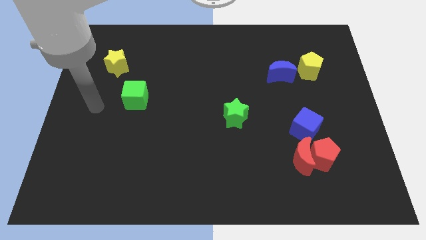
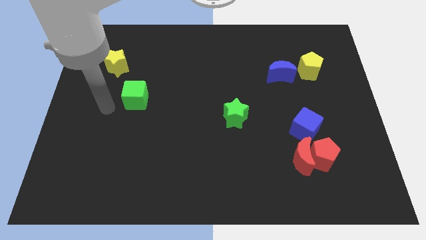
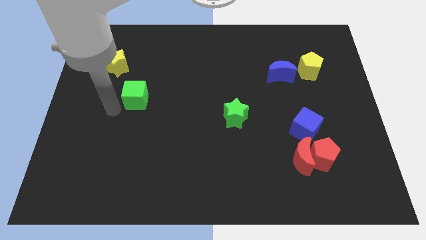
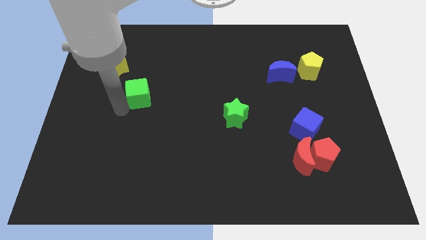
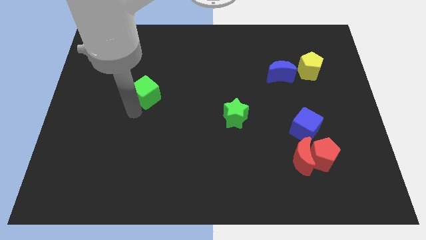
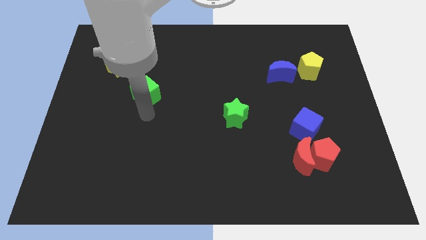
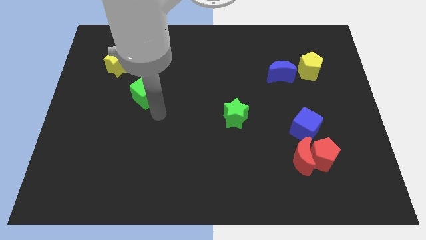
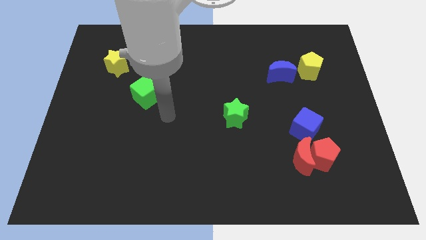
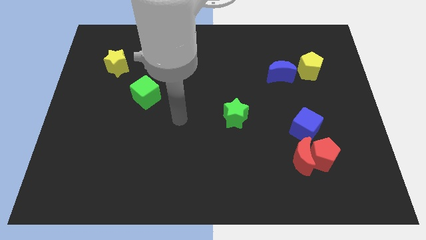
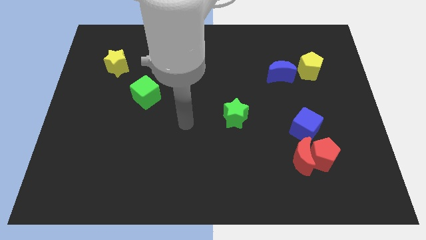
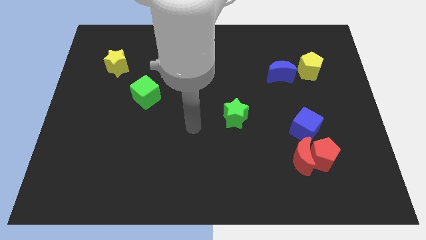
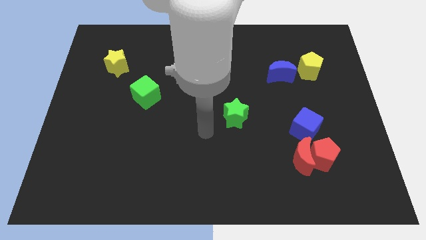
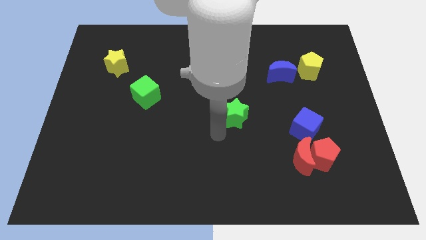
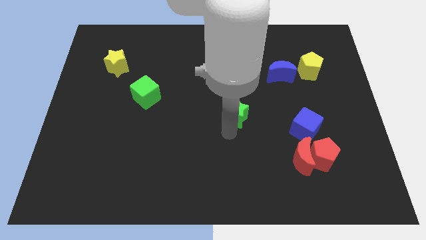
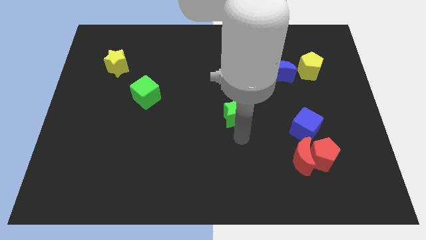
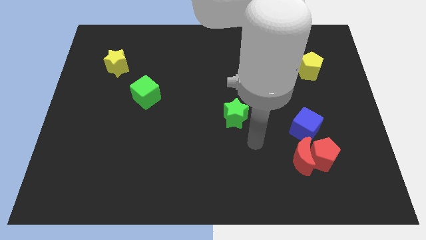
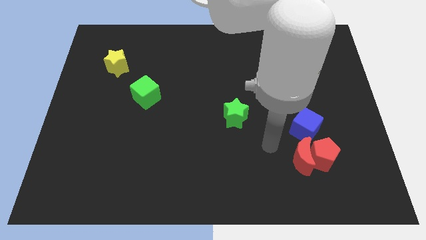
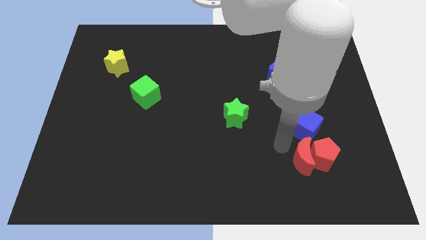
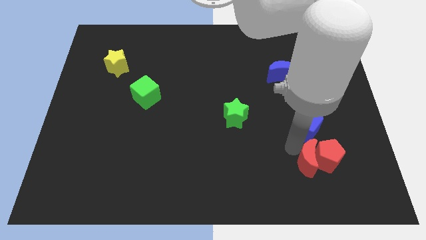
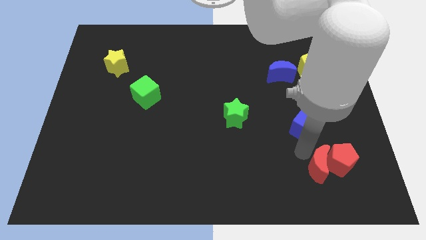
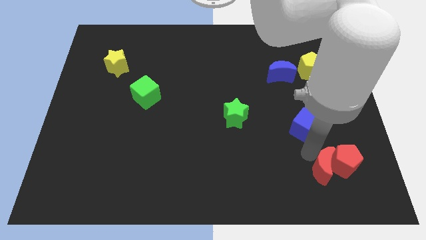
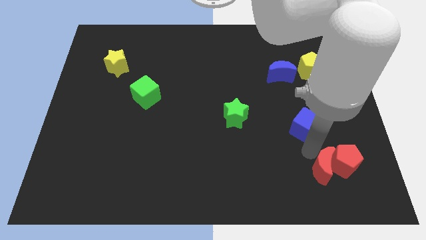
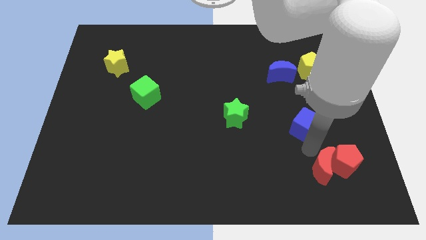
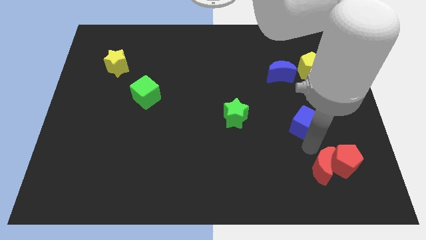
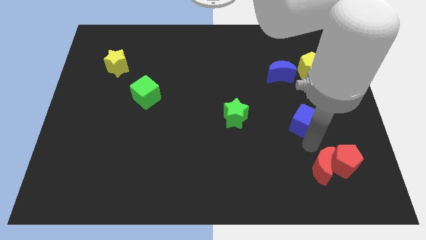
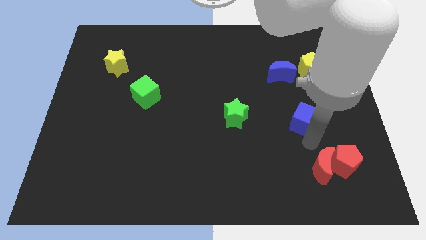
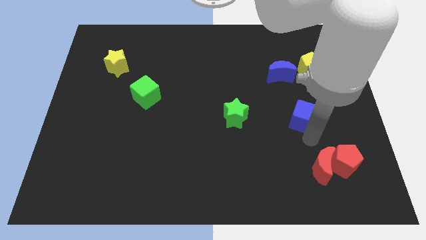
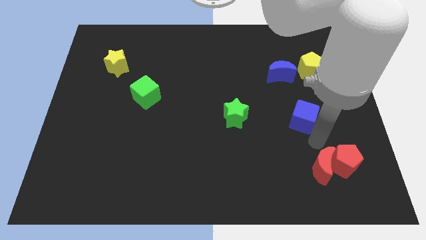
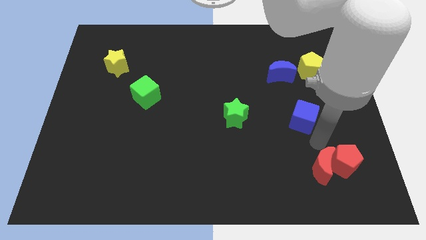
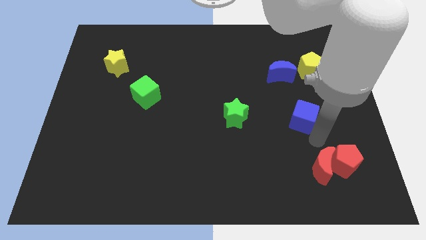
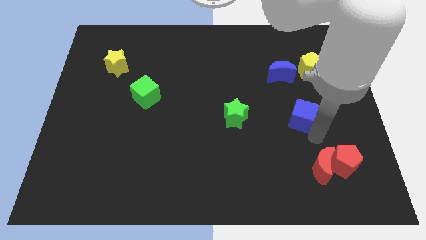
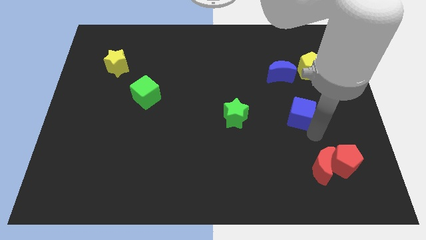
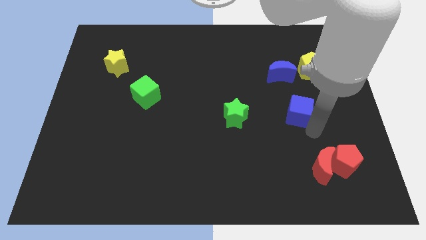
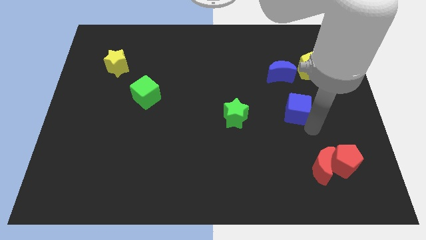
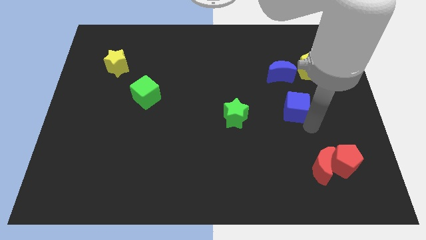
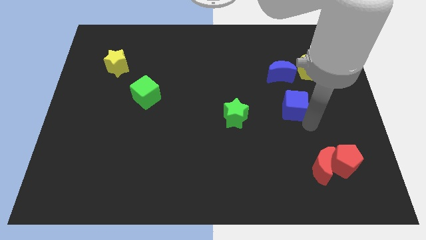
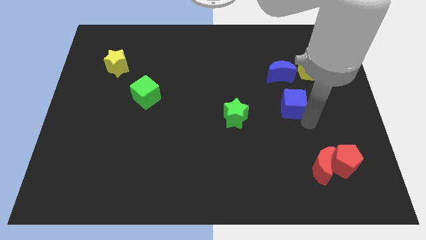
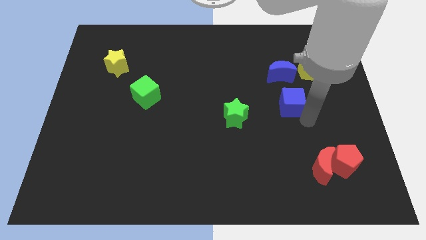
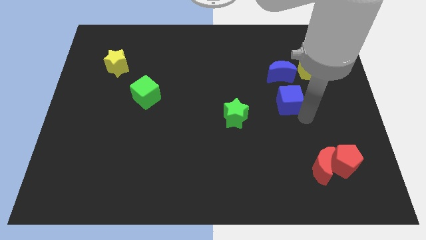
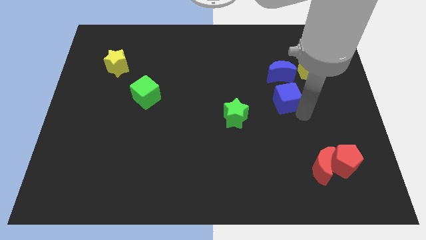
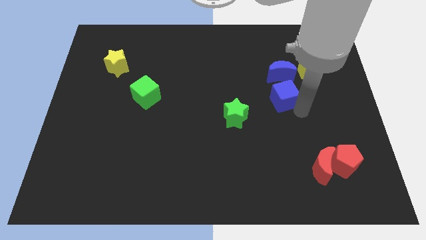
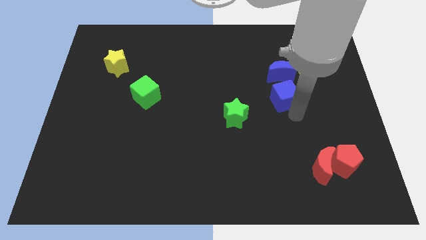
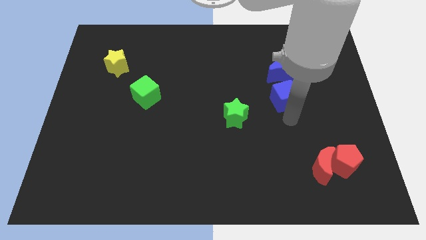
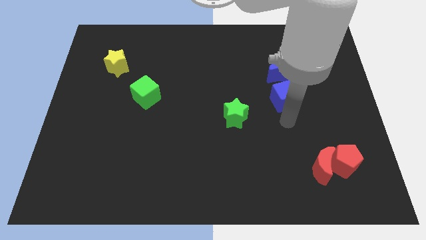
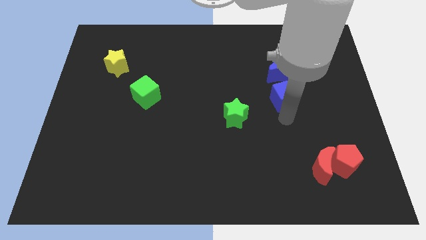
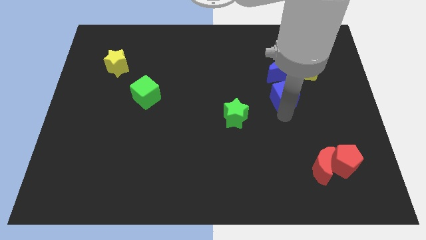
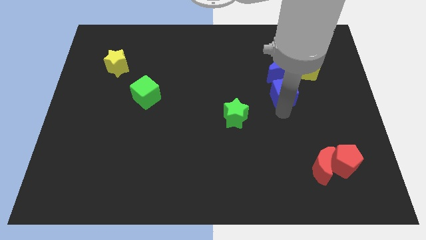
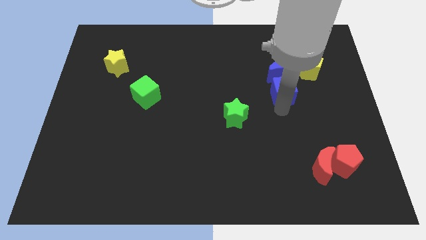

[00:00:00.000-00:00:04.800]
move the blue cube to the blue moon

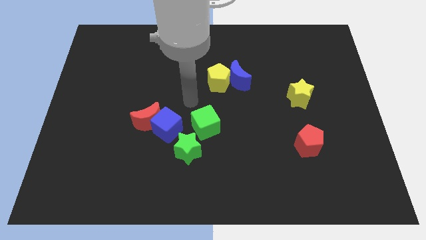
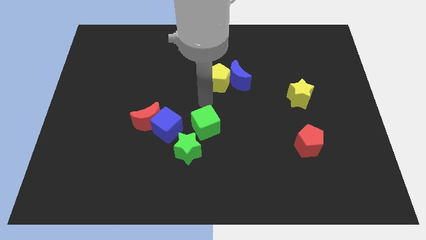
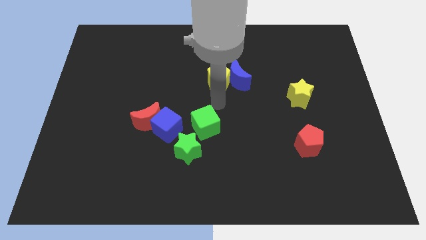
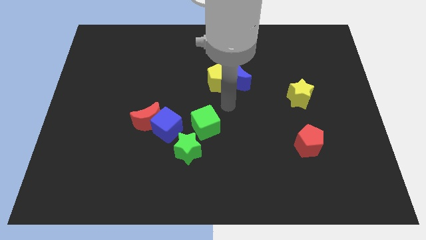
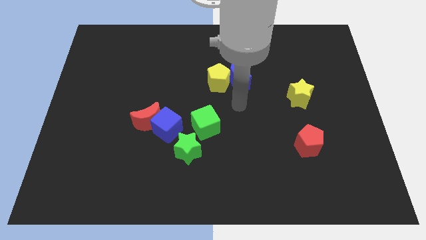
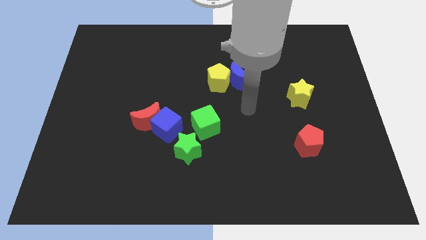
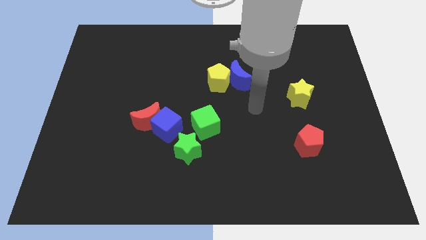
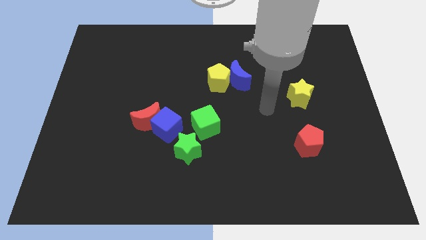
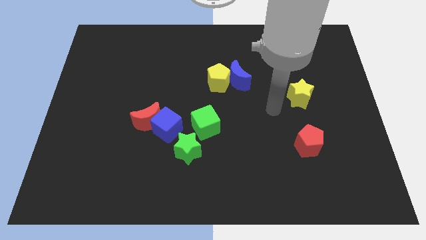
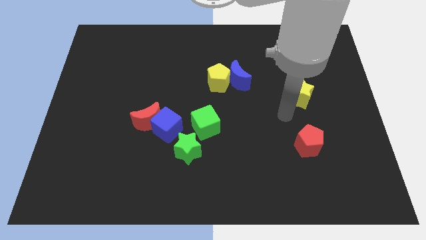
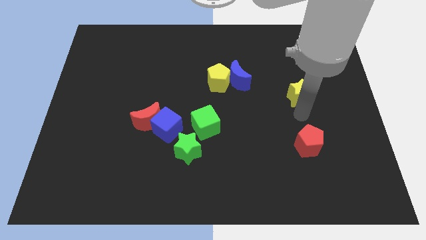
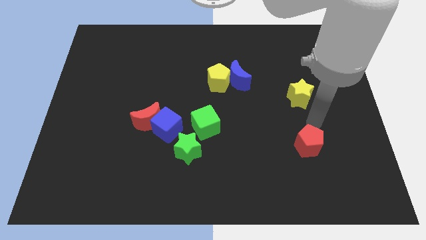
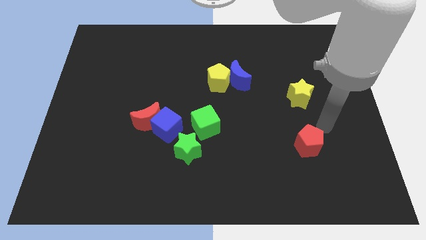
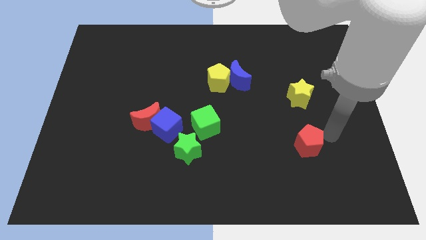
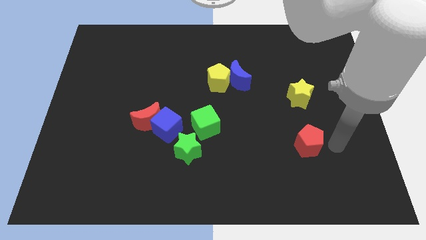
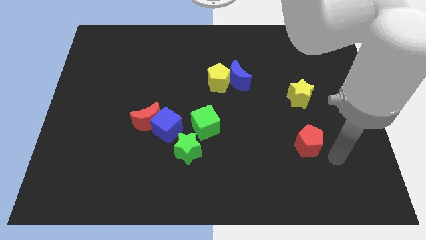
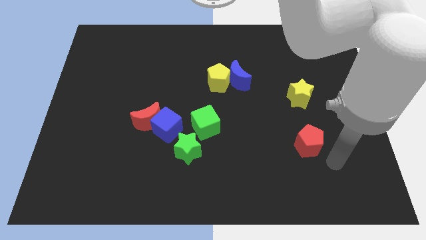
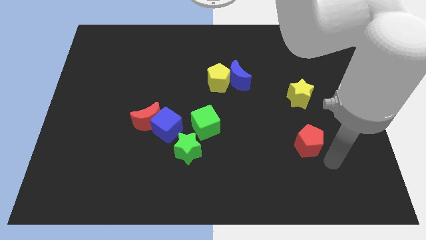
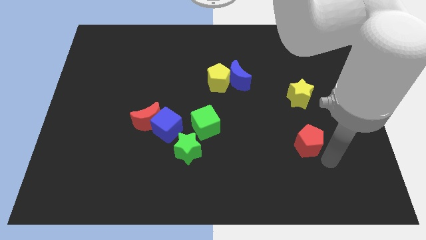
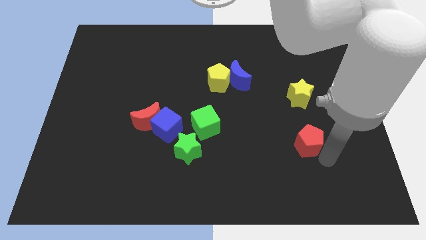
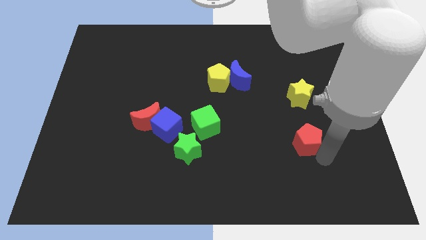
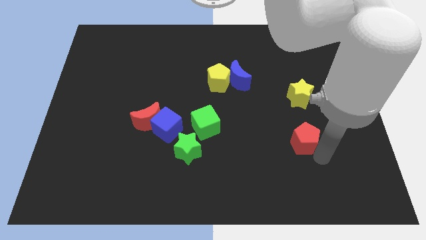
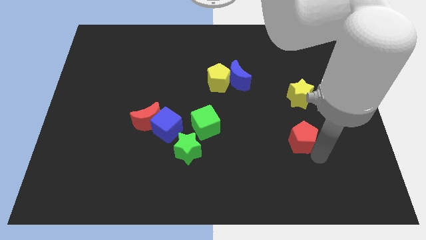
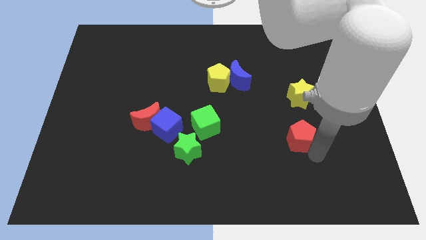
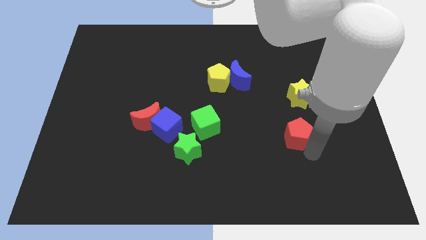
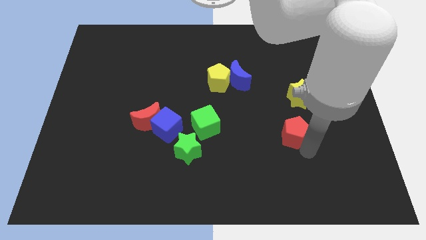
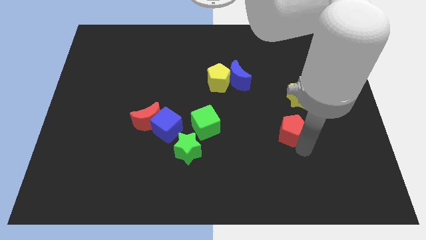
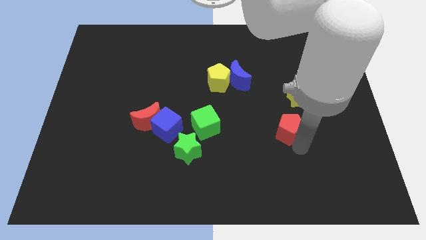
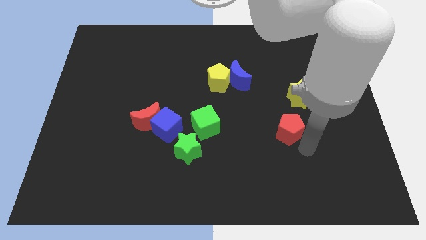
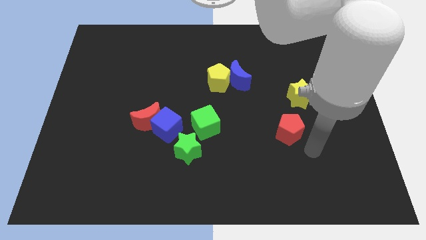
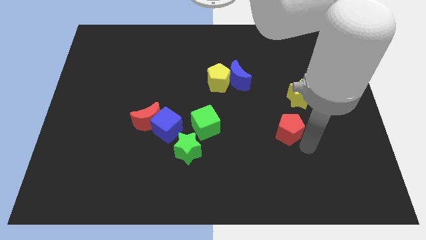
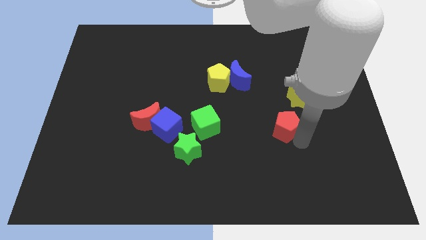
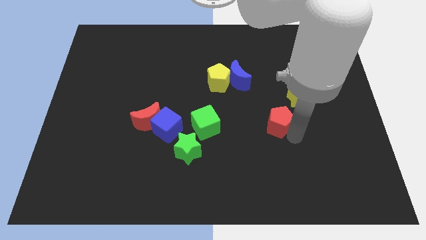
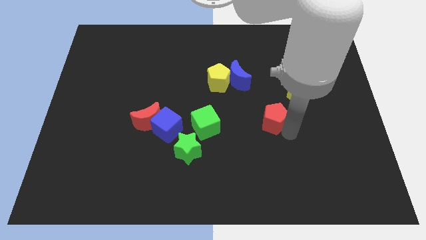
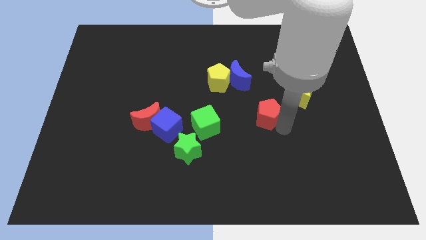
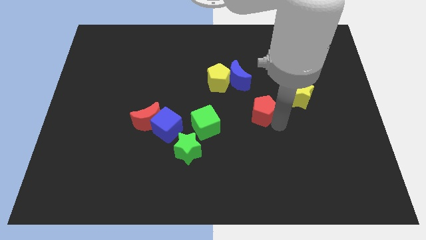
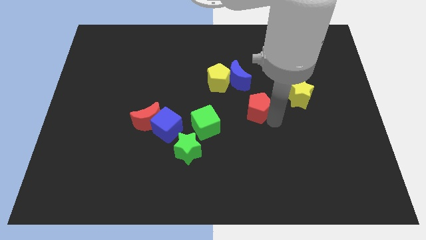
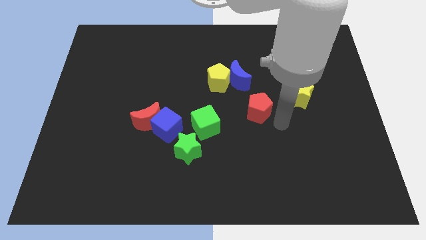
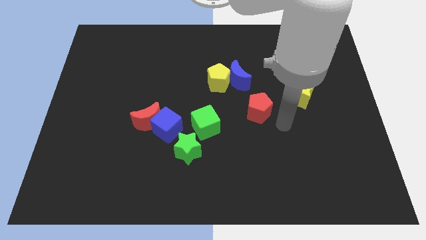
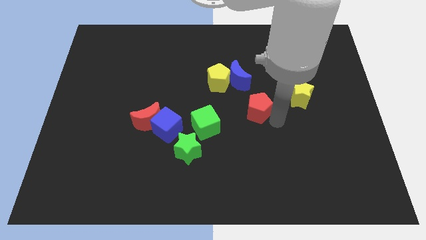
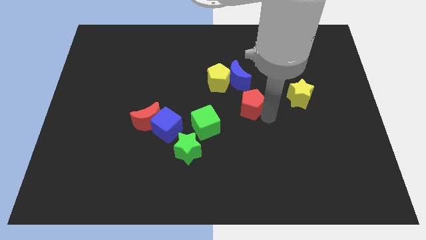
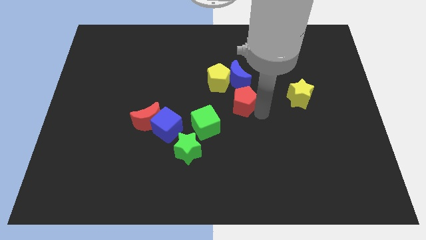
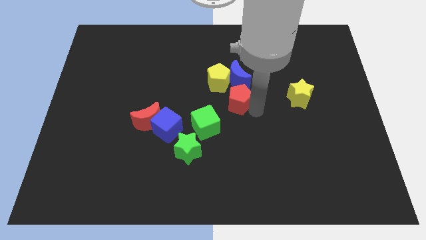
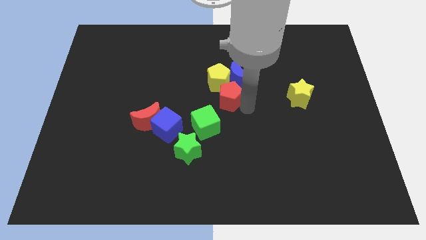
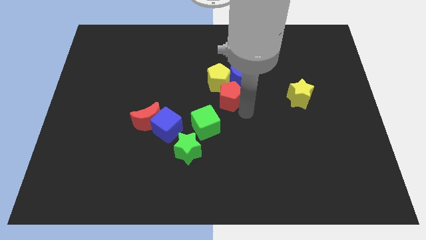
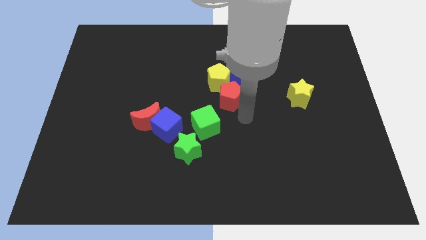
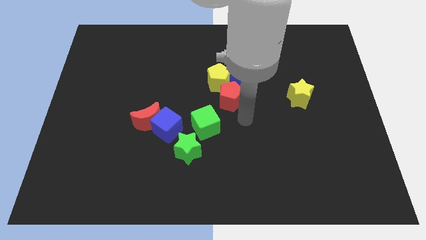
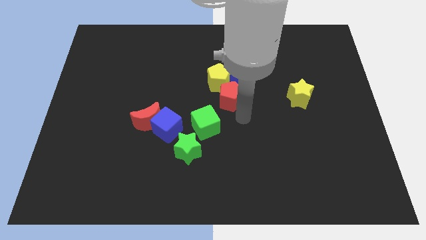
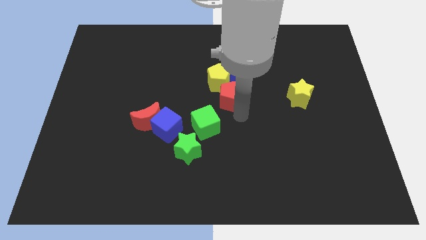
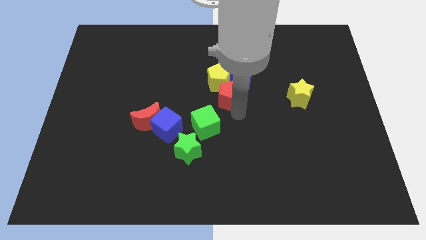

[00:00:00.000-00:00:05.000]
slide the red pentagon close to the yellow pentagon
